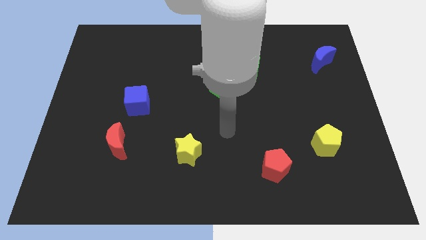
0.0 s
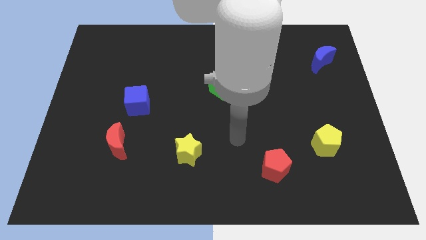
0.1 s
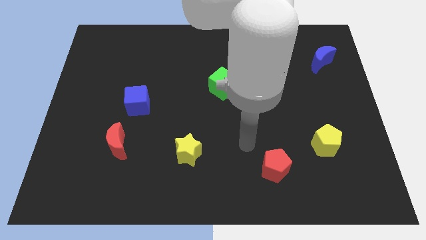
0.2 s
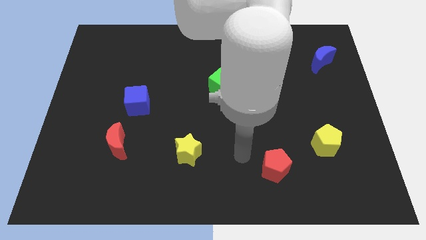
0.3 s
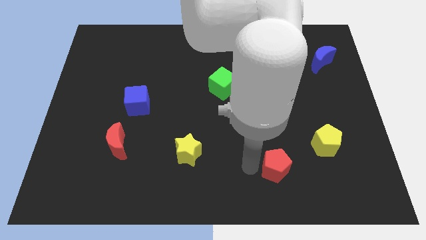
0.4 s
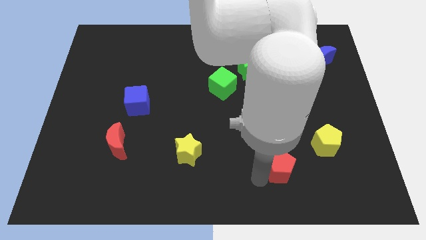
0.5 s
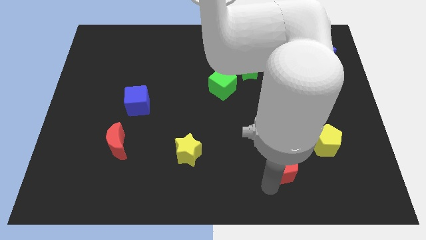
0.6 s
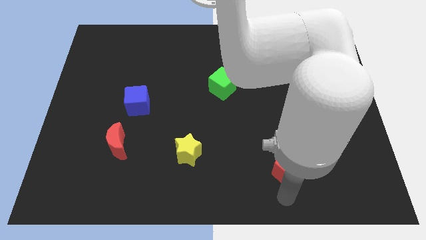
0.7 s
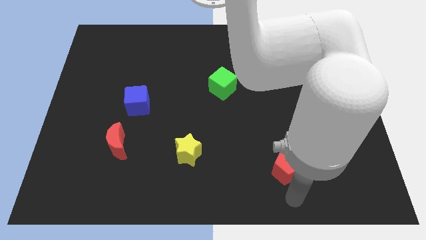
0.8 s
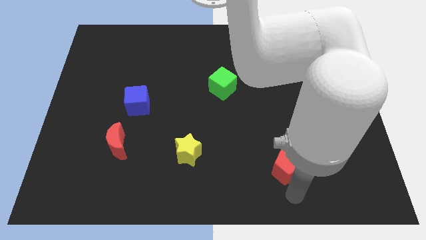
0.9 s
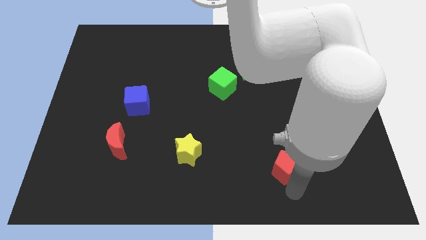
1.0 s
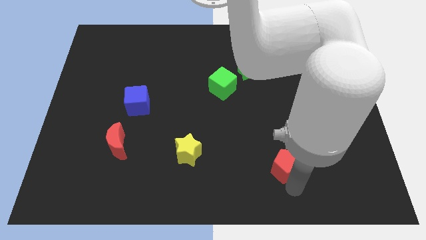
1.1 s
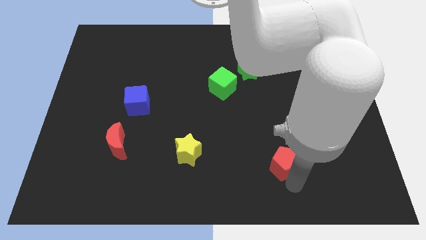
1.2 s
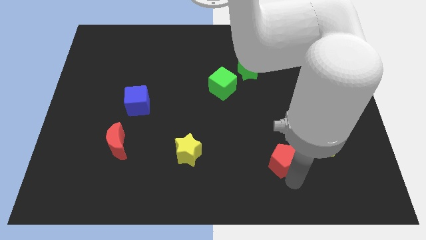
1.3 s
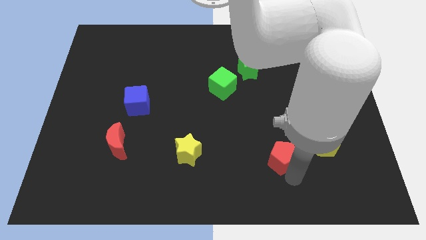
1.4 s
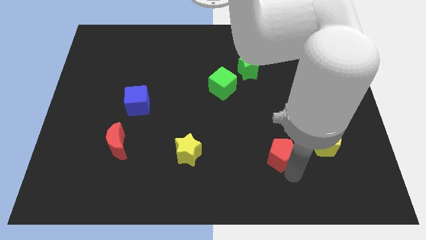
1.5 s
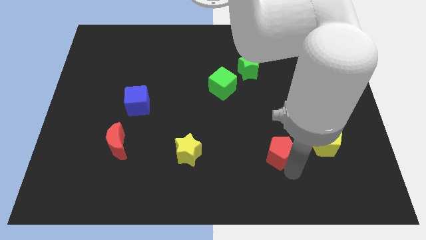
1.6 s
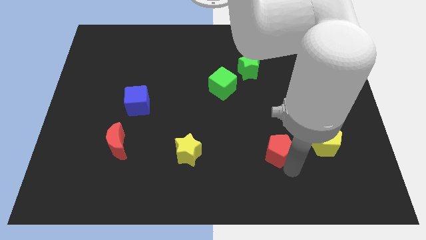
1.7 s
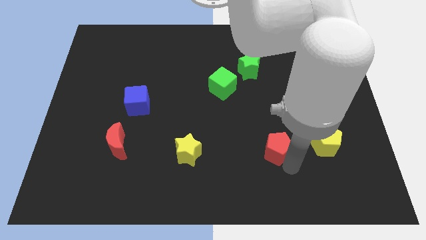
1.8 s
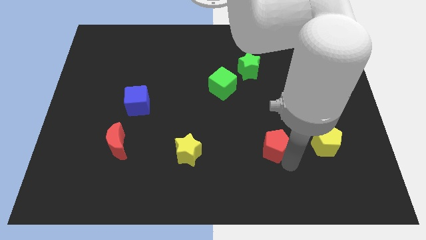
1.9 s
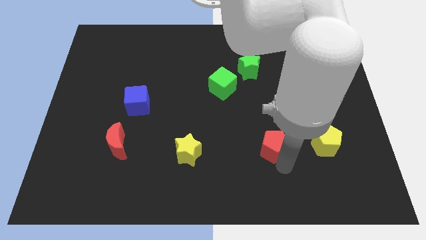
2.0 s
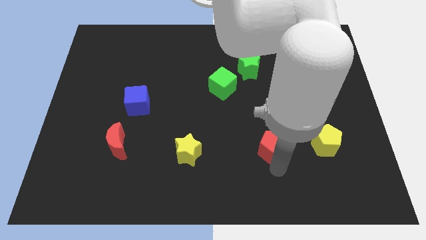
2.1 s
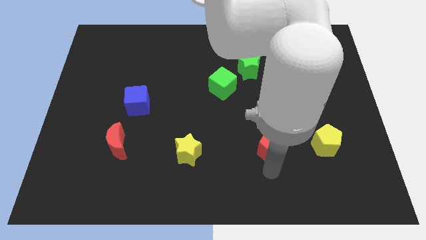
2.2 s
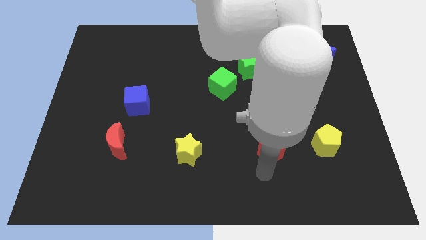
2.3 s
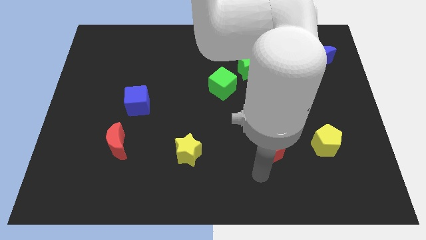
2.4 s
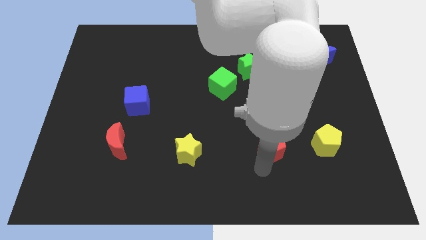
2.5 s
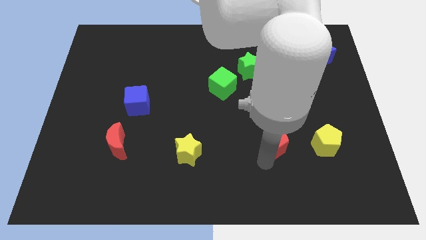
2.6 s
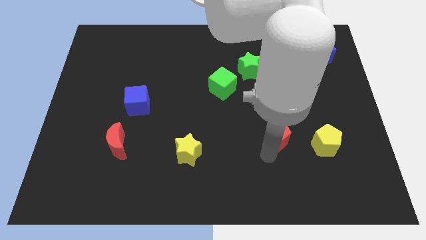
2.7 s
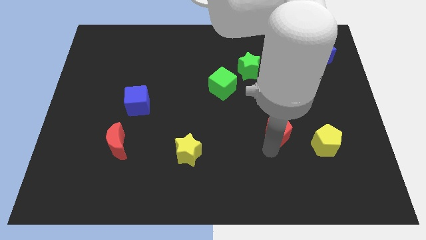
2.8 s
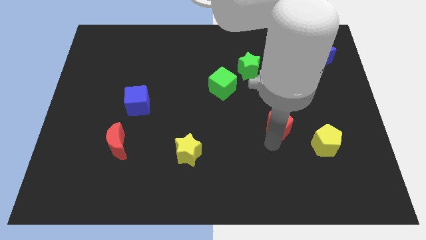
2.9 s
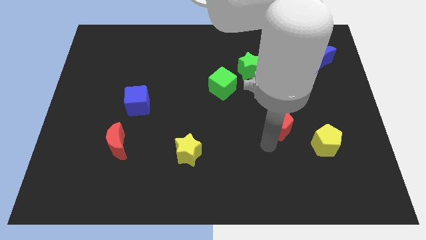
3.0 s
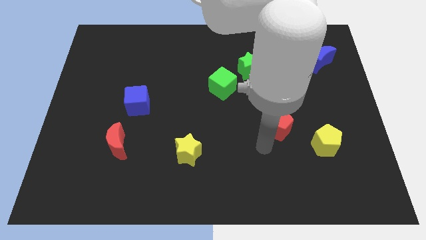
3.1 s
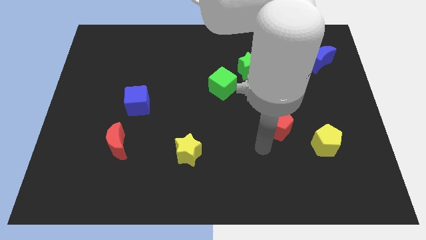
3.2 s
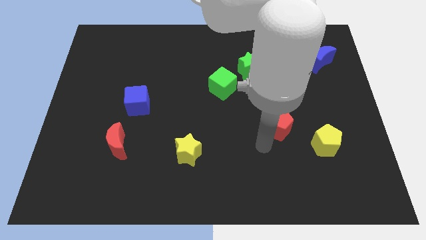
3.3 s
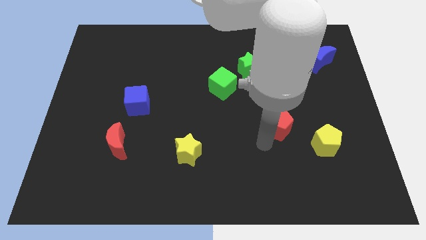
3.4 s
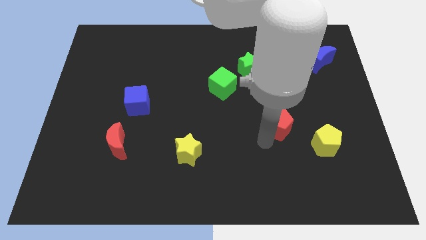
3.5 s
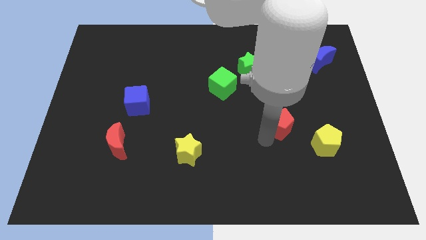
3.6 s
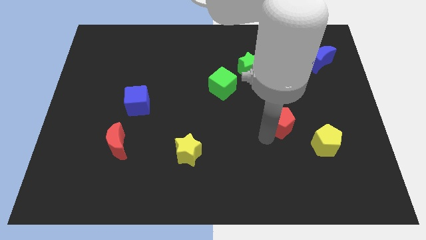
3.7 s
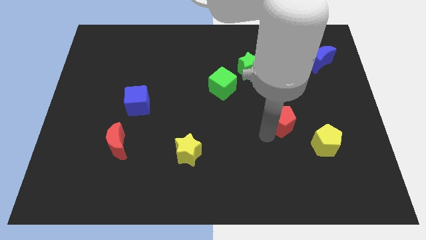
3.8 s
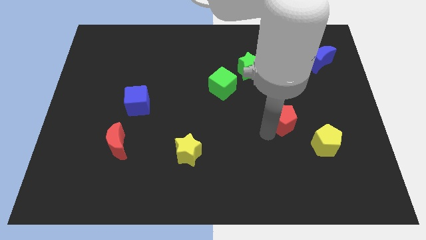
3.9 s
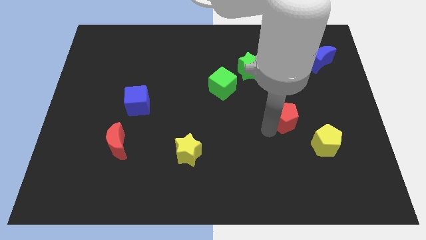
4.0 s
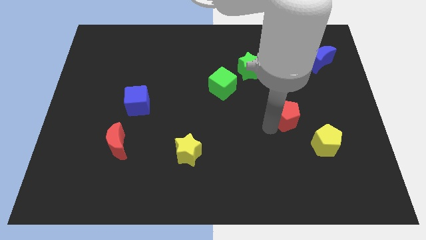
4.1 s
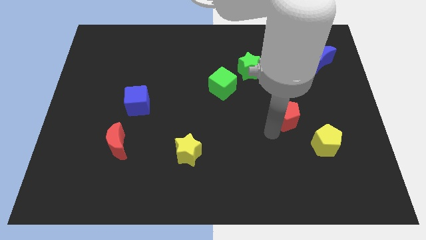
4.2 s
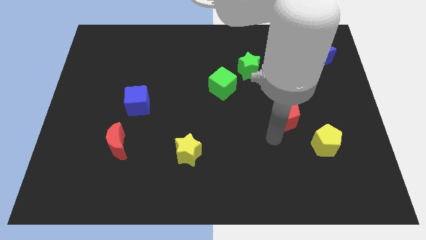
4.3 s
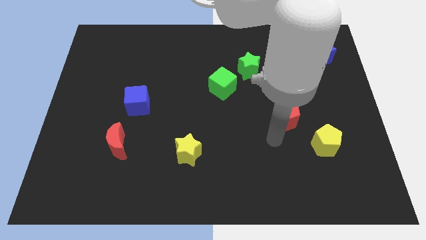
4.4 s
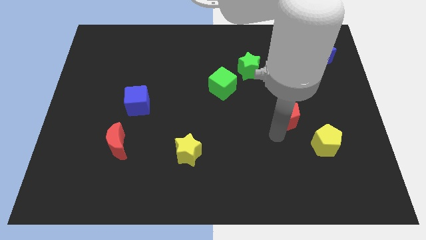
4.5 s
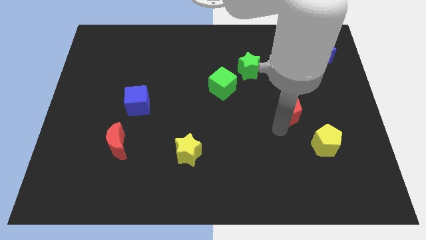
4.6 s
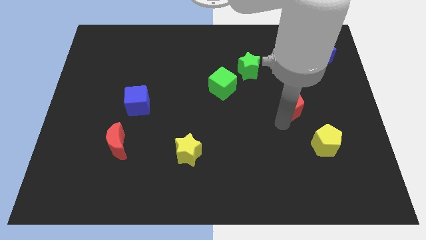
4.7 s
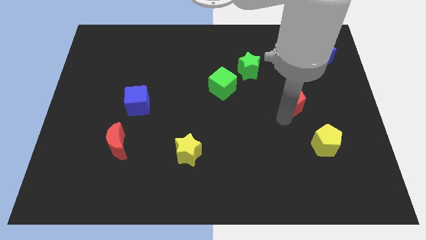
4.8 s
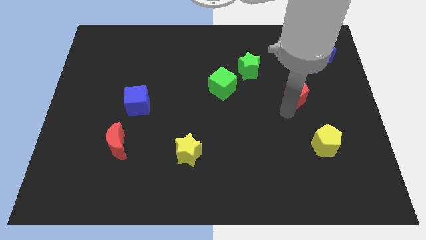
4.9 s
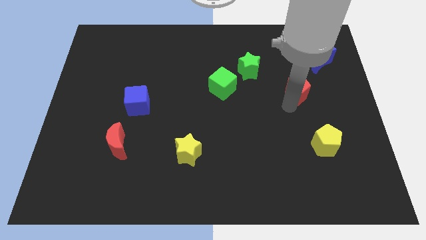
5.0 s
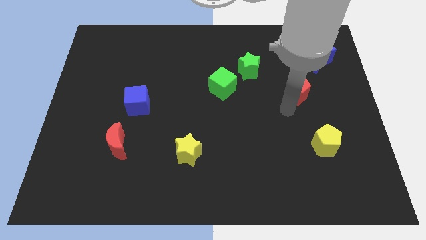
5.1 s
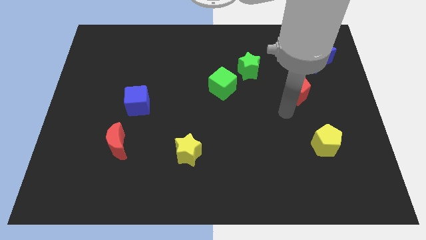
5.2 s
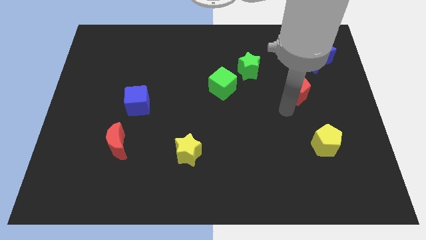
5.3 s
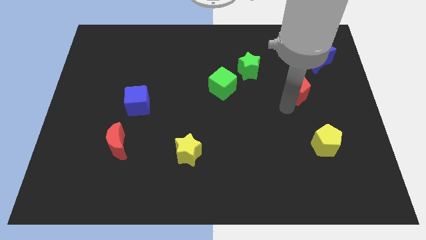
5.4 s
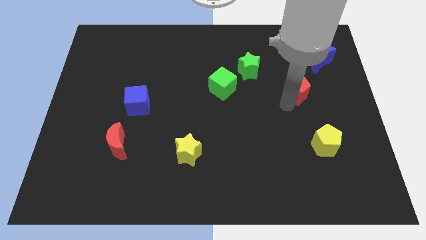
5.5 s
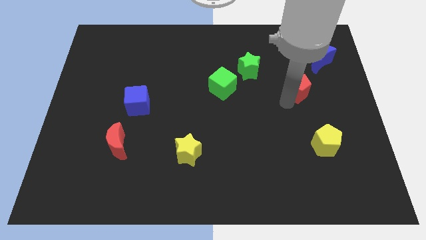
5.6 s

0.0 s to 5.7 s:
put the red pentagon diagonally down and to the left of the blue moon
